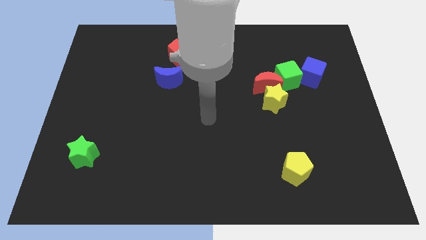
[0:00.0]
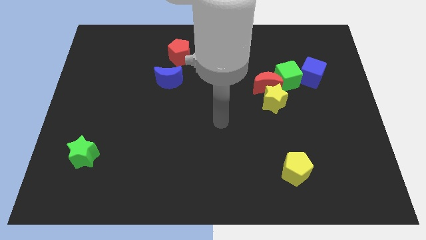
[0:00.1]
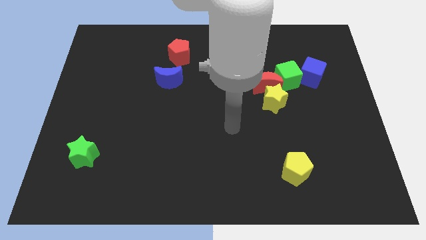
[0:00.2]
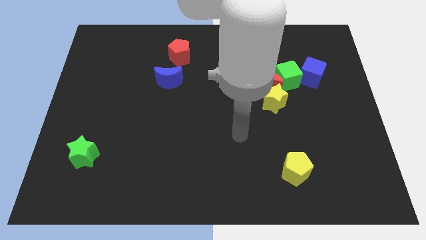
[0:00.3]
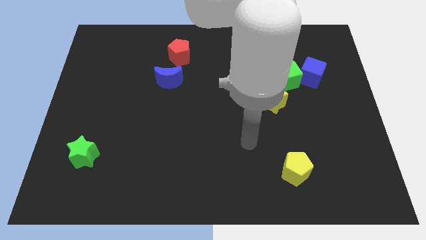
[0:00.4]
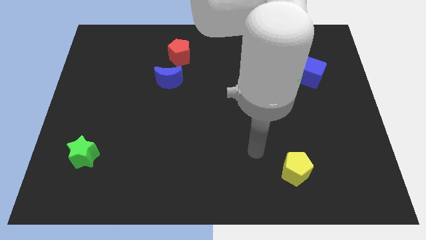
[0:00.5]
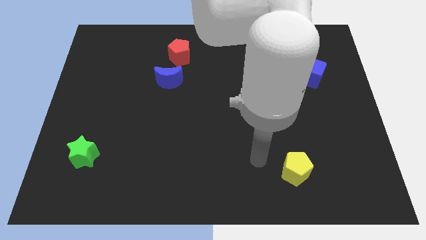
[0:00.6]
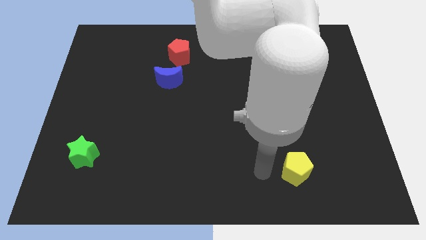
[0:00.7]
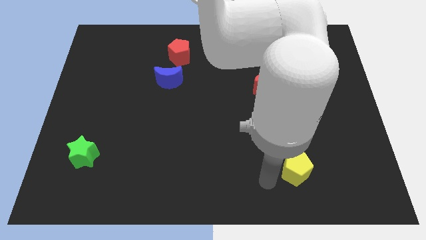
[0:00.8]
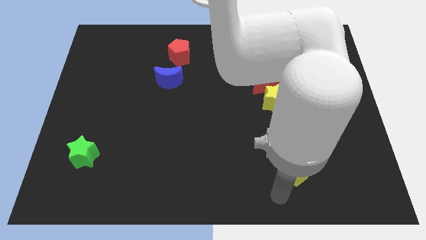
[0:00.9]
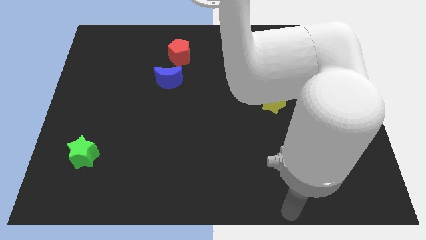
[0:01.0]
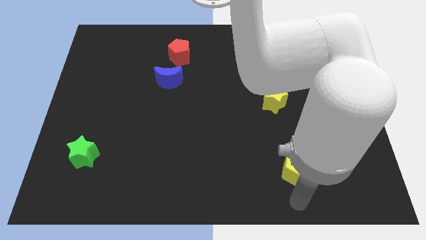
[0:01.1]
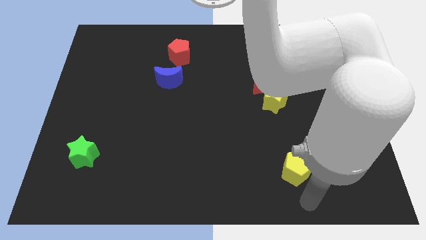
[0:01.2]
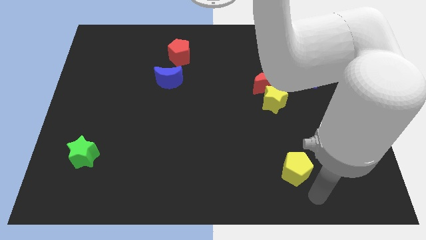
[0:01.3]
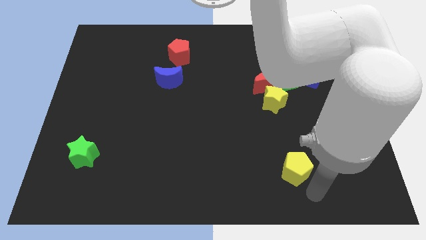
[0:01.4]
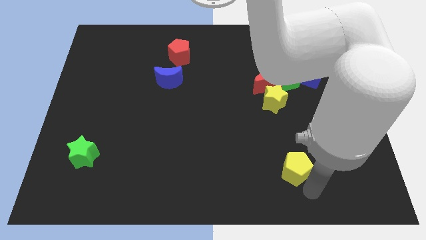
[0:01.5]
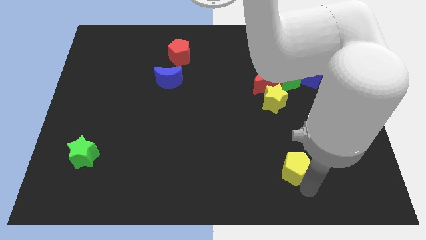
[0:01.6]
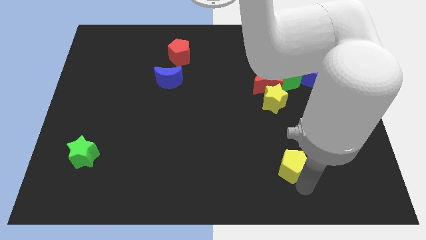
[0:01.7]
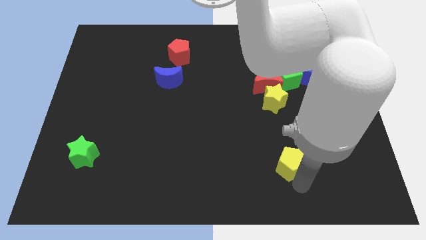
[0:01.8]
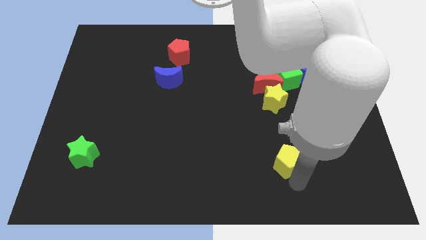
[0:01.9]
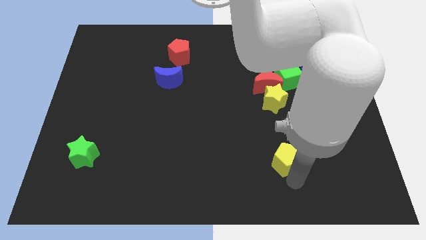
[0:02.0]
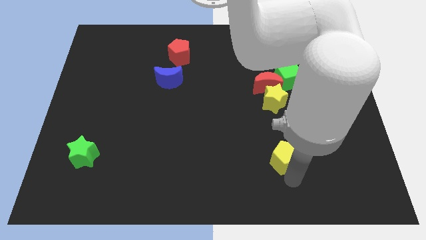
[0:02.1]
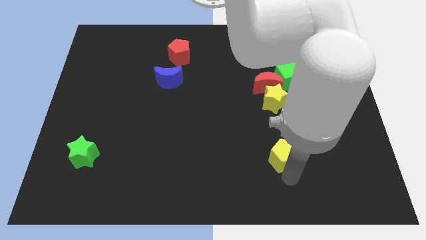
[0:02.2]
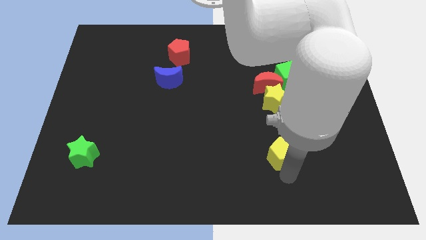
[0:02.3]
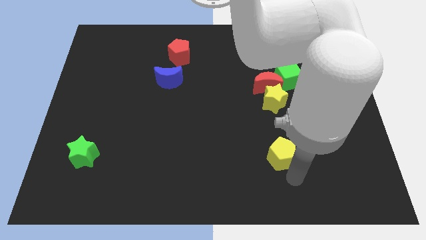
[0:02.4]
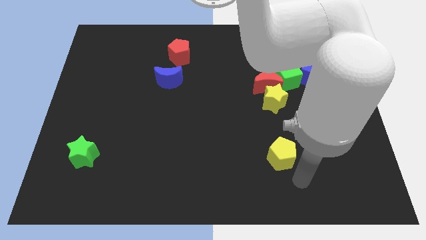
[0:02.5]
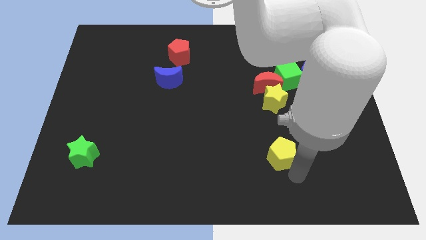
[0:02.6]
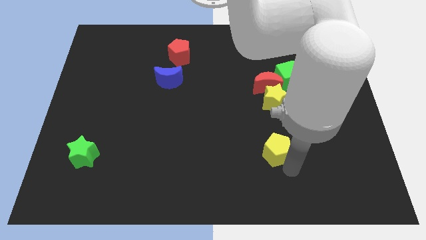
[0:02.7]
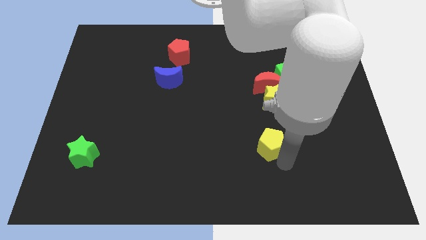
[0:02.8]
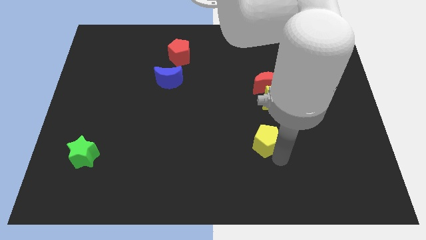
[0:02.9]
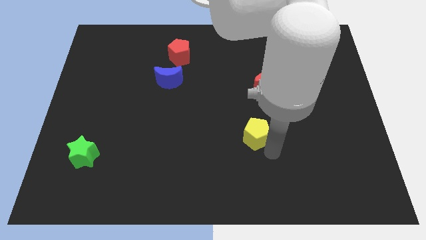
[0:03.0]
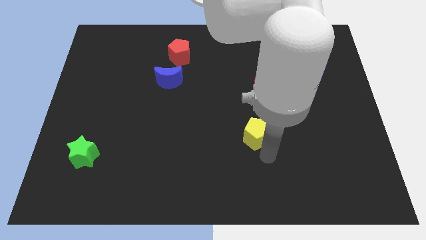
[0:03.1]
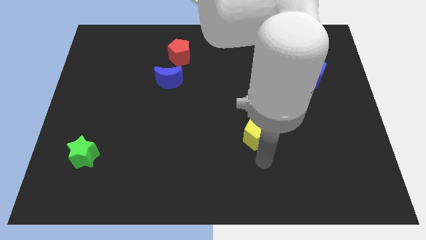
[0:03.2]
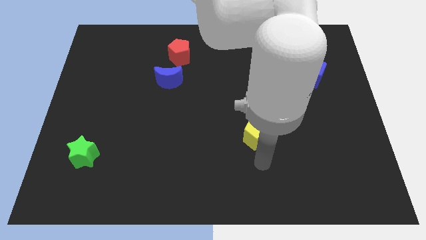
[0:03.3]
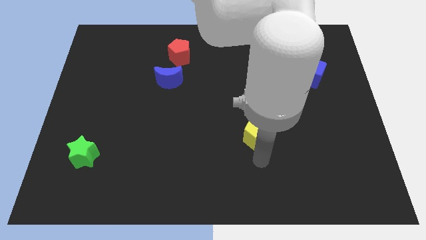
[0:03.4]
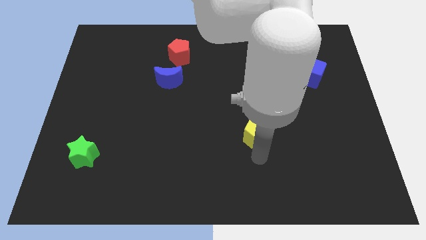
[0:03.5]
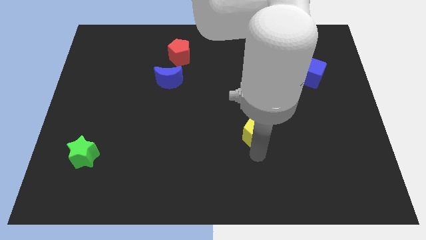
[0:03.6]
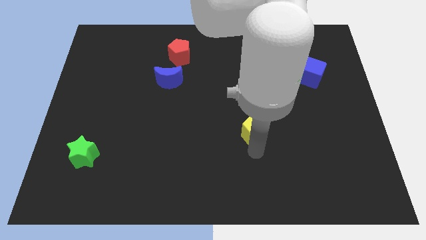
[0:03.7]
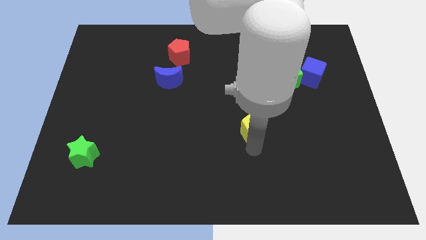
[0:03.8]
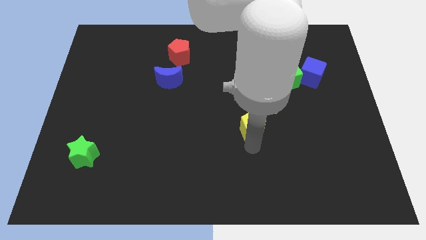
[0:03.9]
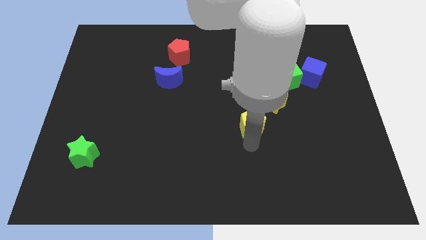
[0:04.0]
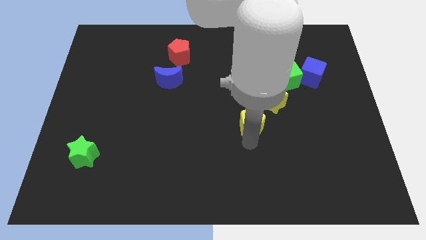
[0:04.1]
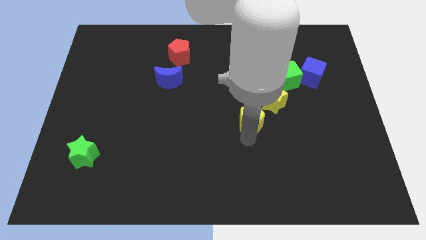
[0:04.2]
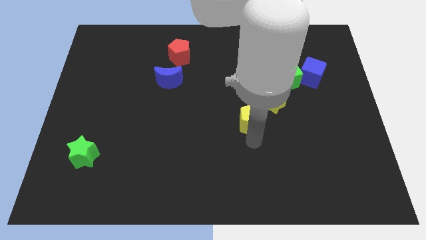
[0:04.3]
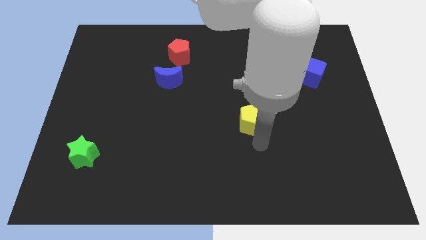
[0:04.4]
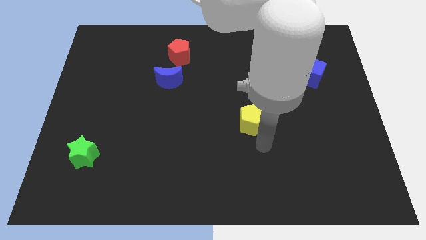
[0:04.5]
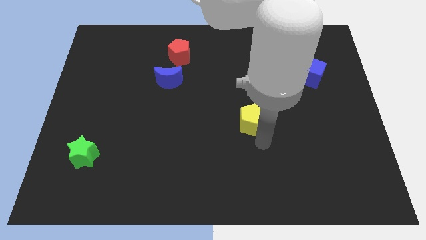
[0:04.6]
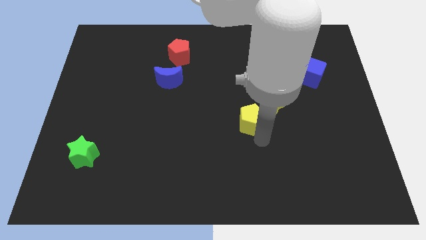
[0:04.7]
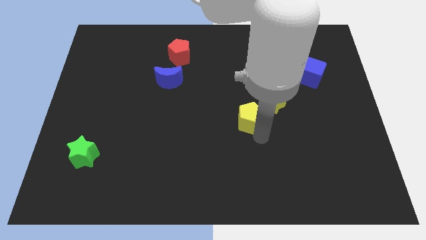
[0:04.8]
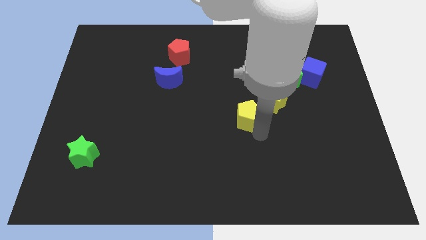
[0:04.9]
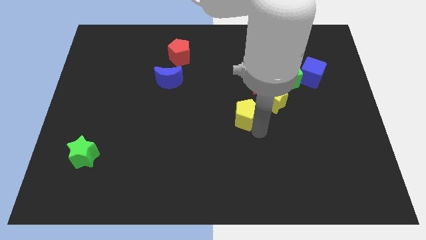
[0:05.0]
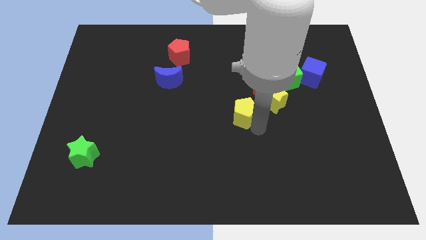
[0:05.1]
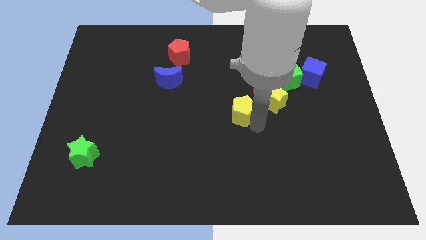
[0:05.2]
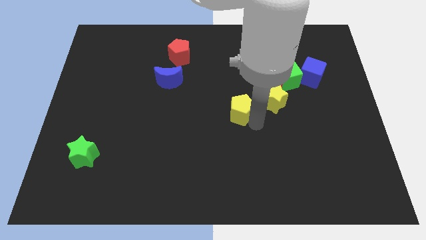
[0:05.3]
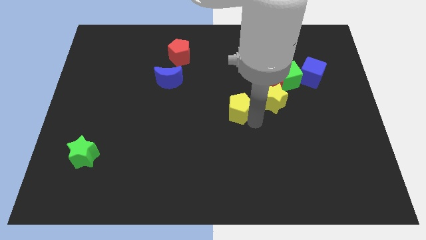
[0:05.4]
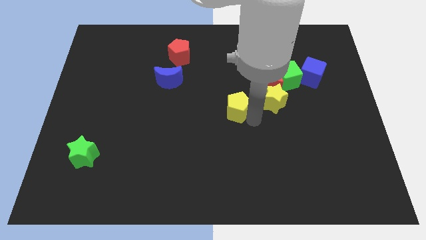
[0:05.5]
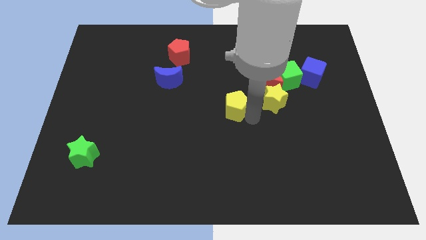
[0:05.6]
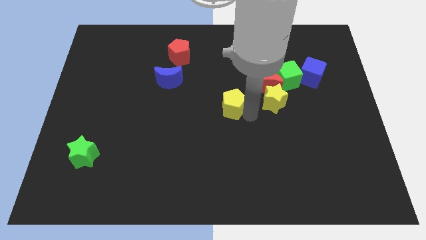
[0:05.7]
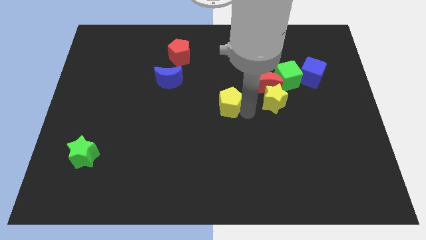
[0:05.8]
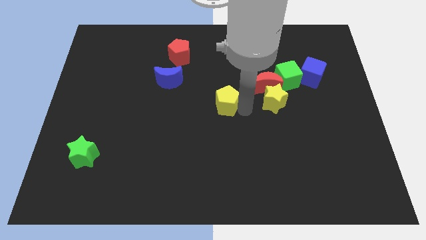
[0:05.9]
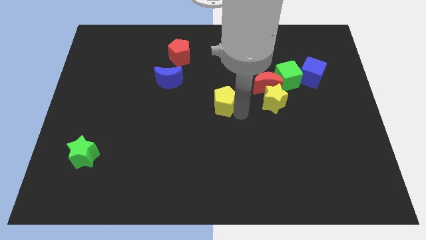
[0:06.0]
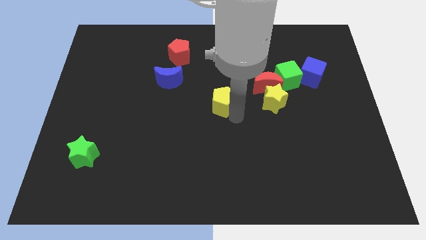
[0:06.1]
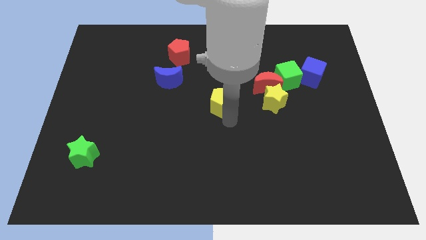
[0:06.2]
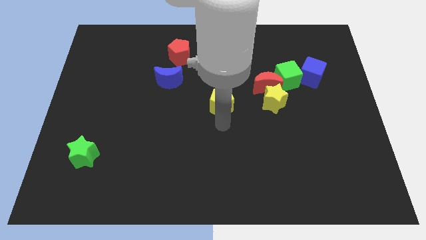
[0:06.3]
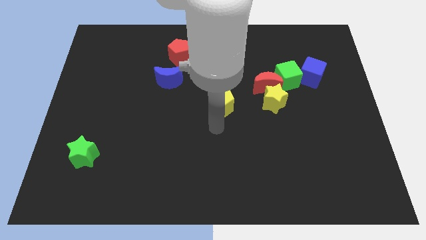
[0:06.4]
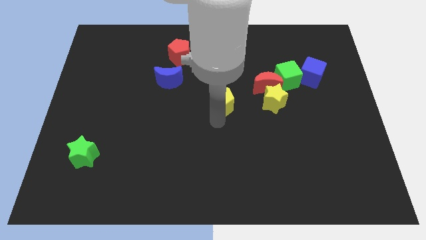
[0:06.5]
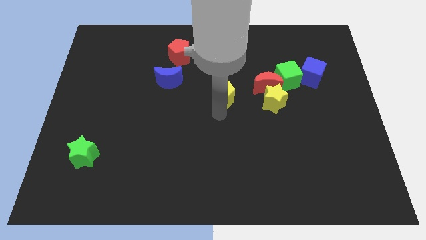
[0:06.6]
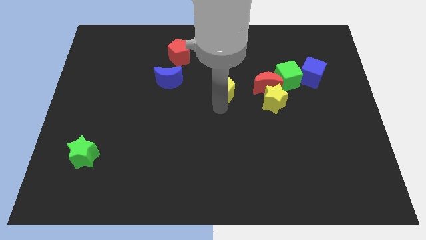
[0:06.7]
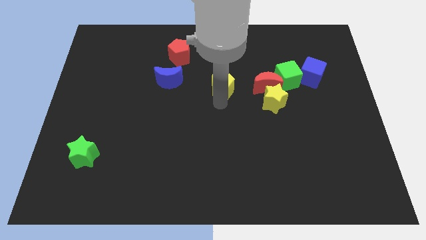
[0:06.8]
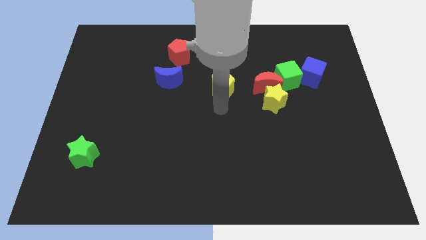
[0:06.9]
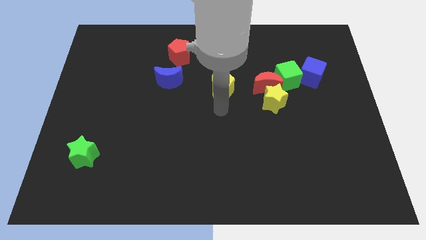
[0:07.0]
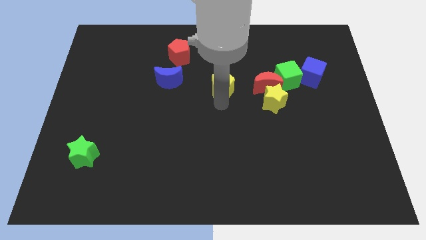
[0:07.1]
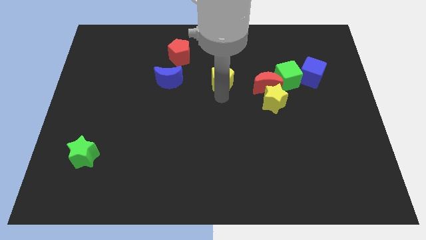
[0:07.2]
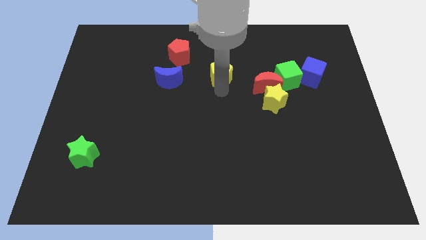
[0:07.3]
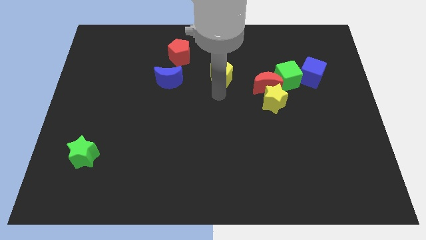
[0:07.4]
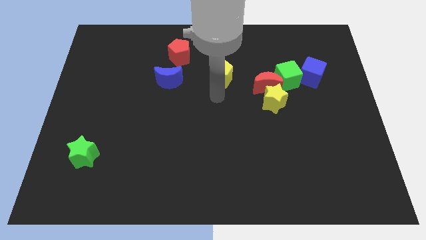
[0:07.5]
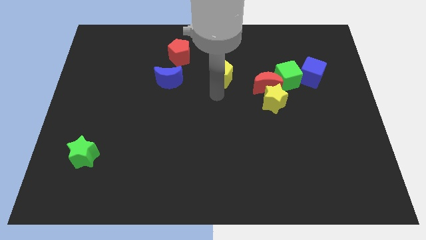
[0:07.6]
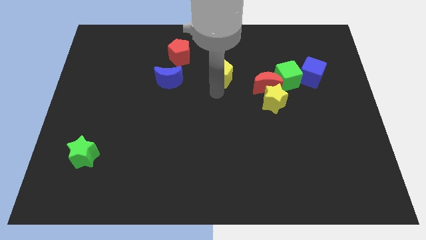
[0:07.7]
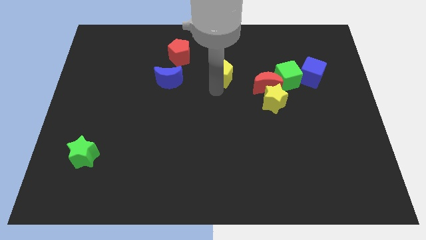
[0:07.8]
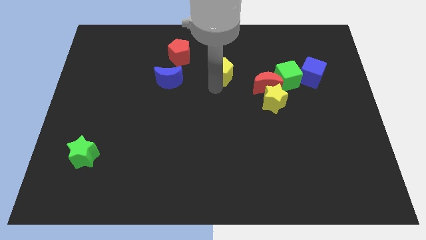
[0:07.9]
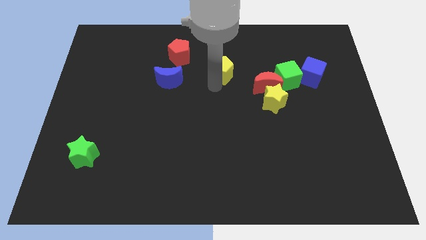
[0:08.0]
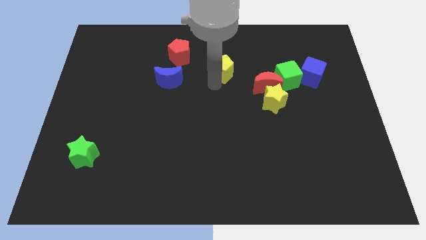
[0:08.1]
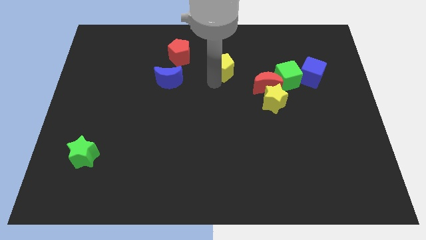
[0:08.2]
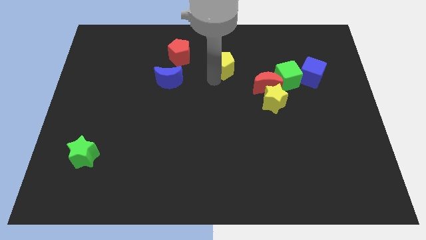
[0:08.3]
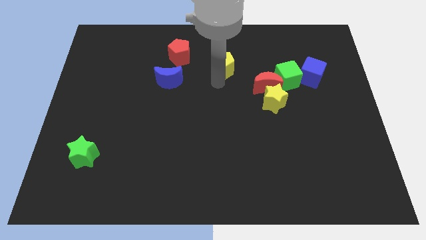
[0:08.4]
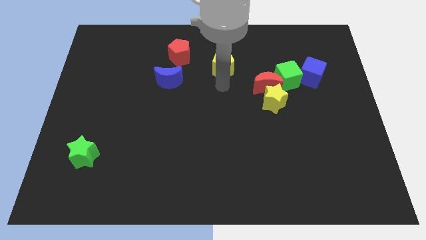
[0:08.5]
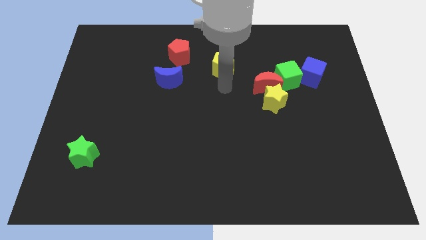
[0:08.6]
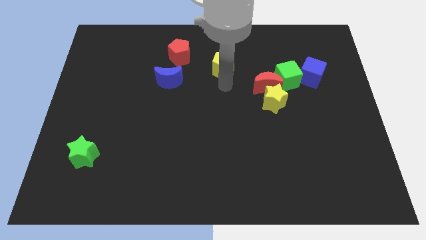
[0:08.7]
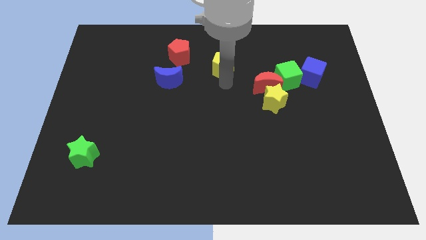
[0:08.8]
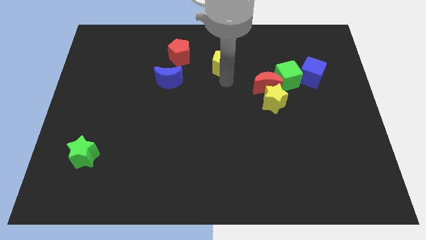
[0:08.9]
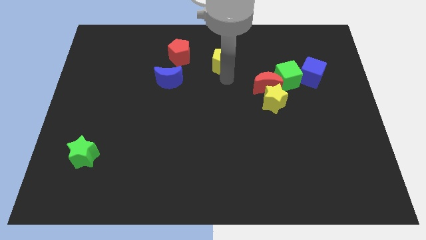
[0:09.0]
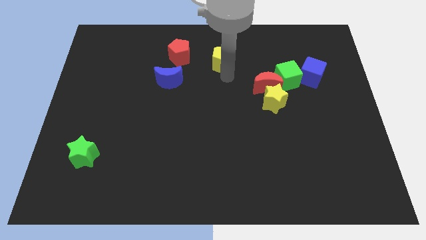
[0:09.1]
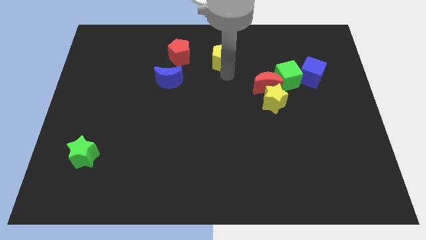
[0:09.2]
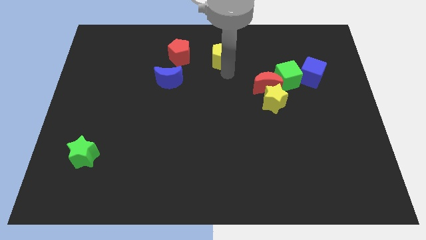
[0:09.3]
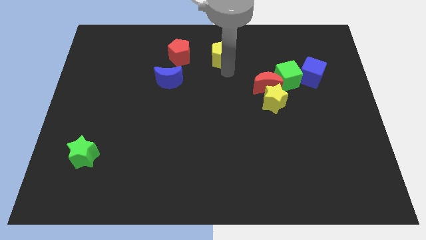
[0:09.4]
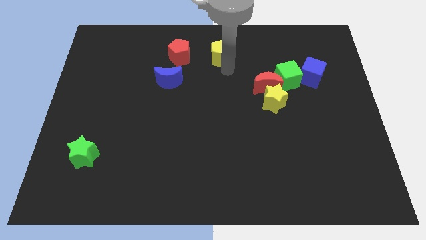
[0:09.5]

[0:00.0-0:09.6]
put the yellow pentagon to the top
